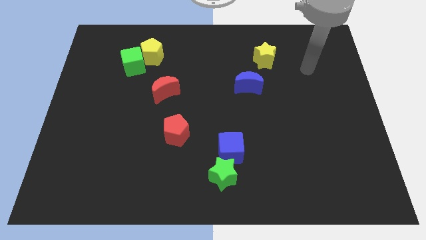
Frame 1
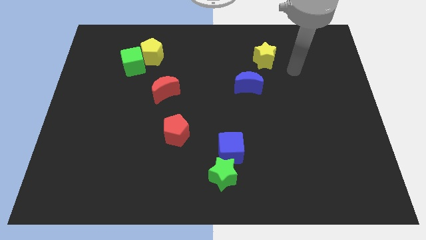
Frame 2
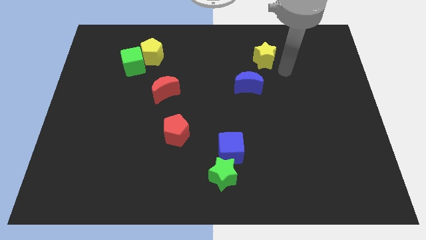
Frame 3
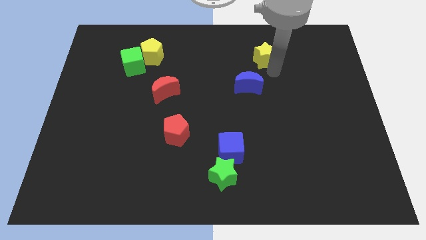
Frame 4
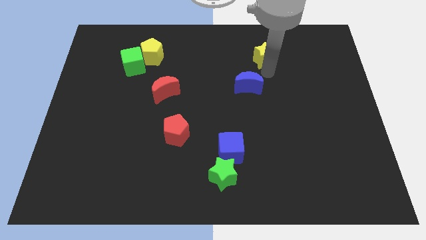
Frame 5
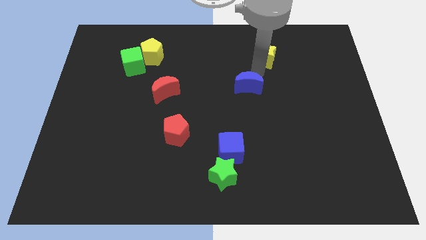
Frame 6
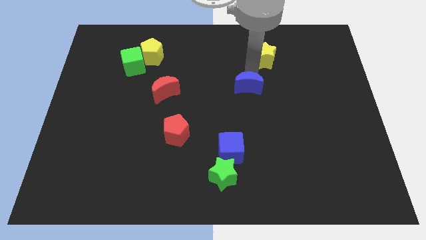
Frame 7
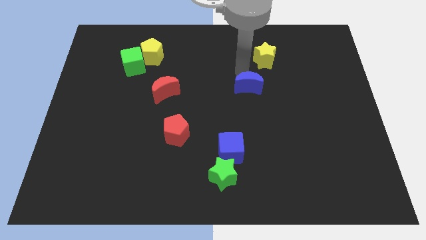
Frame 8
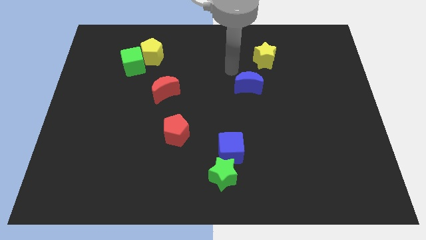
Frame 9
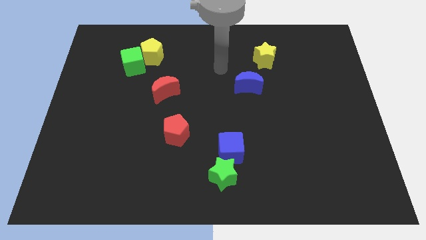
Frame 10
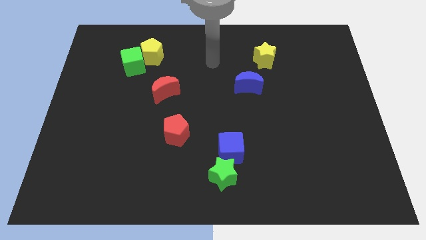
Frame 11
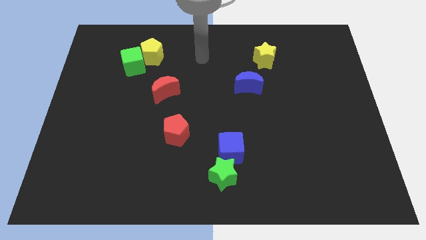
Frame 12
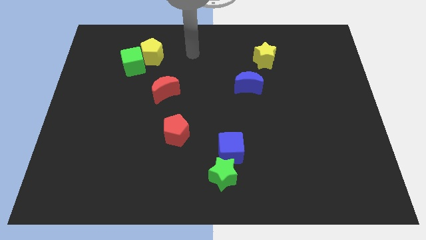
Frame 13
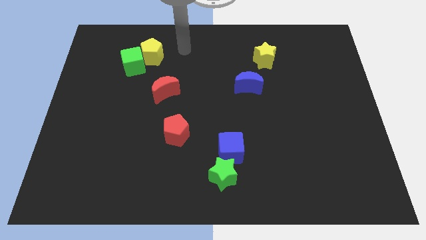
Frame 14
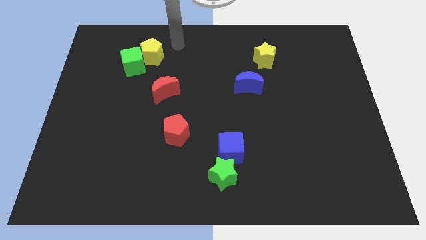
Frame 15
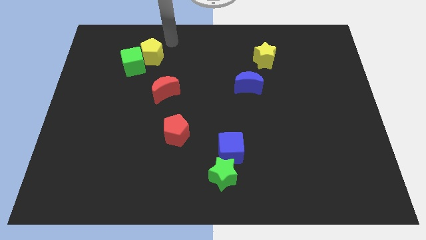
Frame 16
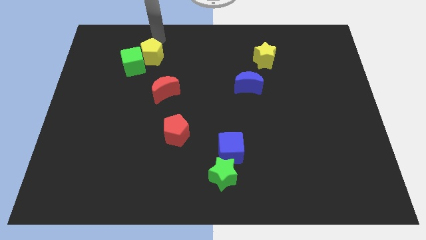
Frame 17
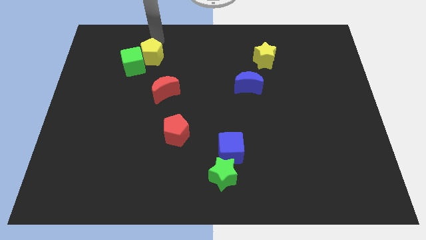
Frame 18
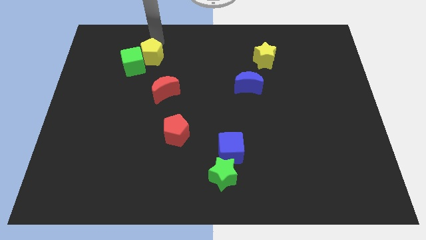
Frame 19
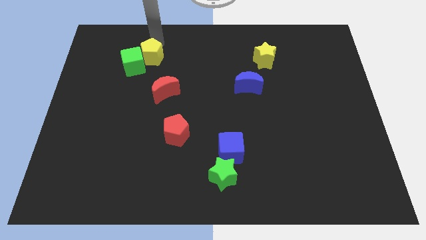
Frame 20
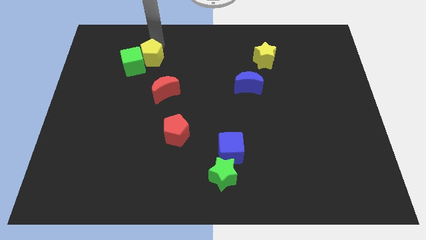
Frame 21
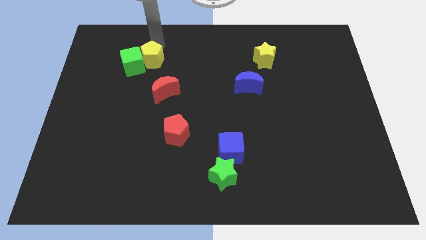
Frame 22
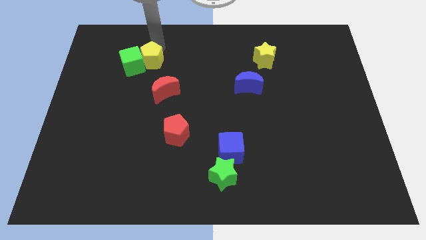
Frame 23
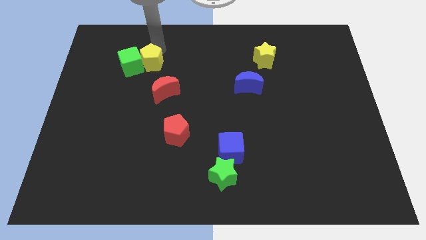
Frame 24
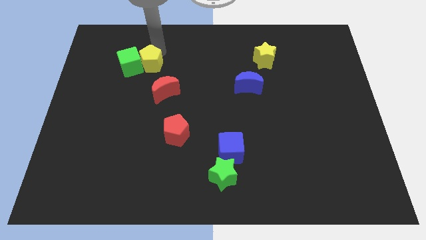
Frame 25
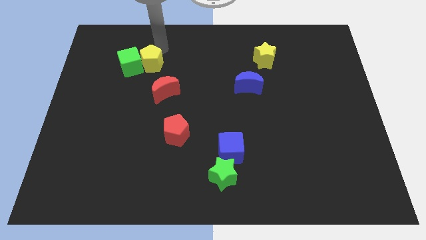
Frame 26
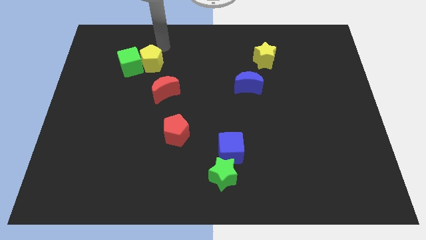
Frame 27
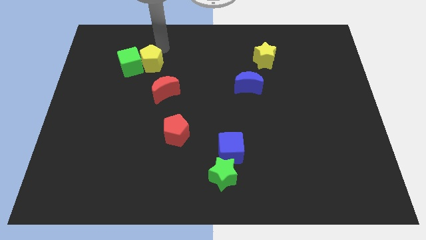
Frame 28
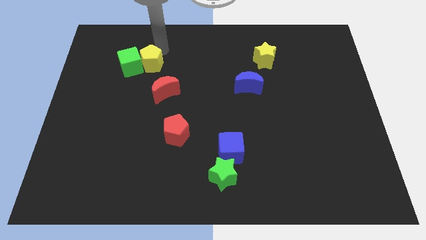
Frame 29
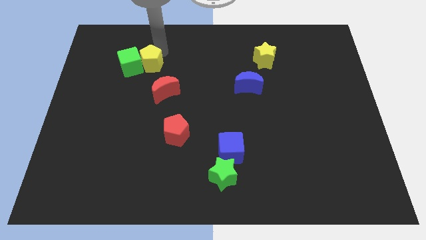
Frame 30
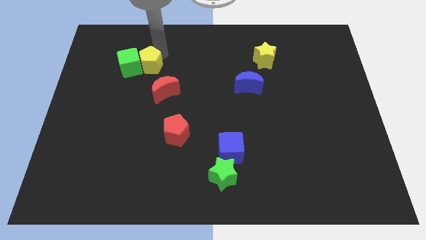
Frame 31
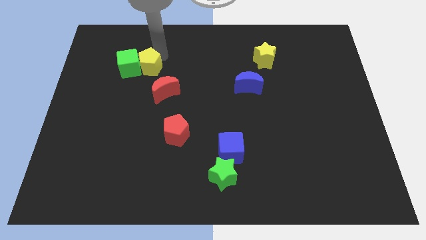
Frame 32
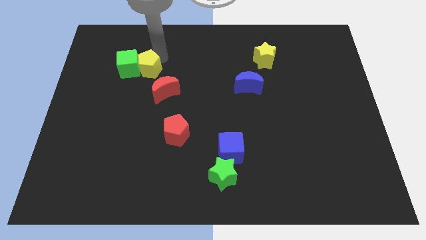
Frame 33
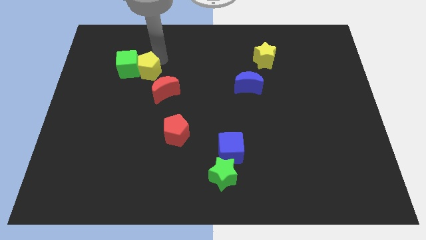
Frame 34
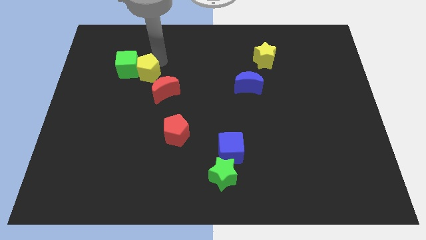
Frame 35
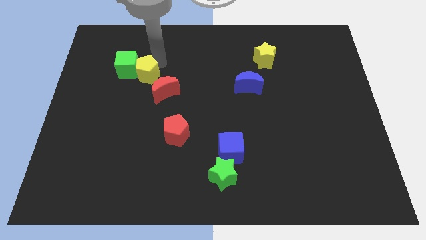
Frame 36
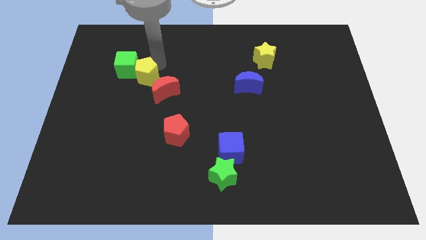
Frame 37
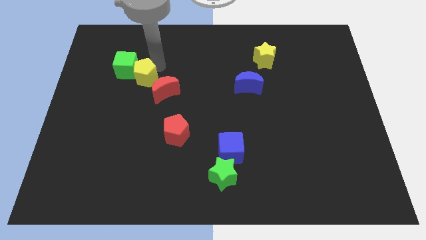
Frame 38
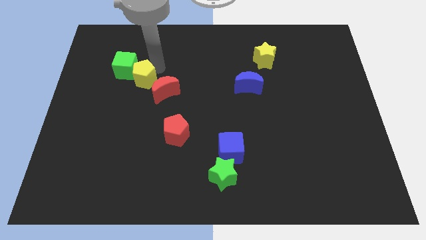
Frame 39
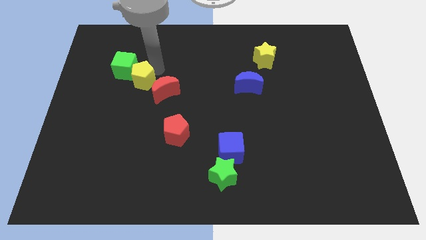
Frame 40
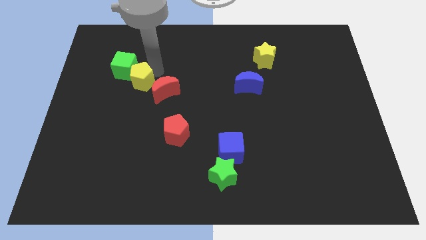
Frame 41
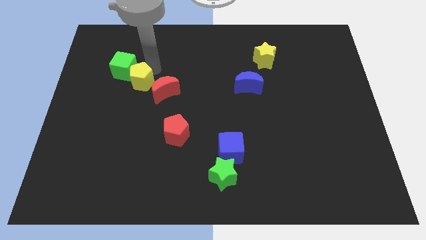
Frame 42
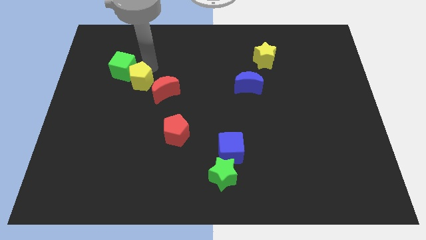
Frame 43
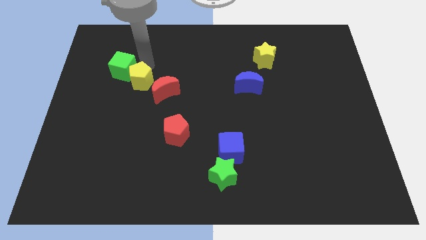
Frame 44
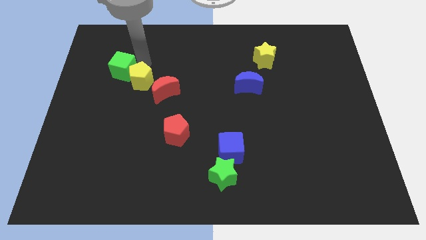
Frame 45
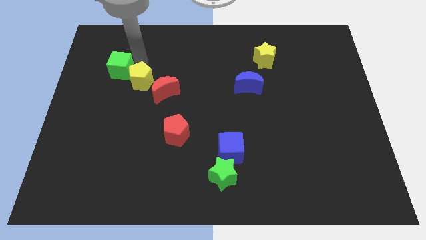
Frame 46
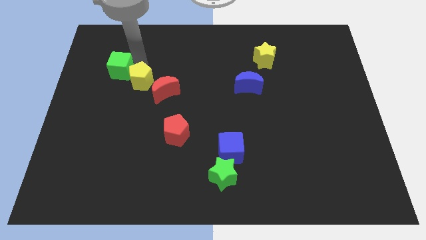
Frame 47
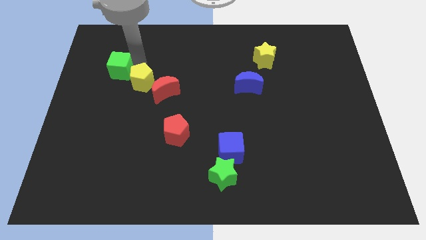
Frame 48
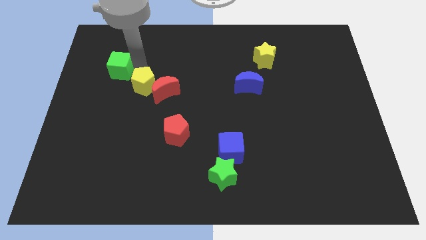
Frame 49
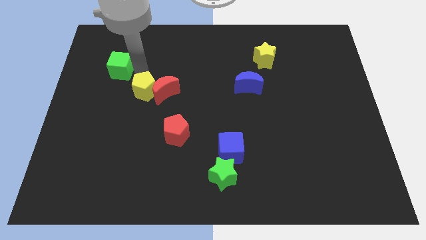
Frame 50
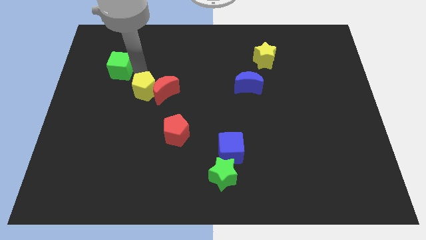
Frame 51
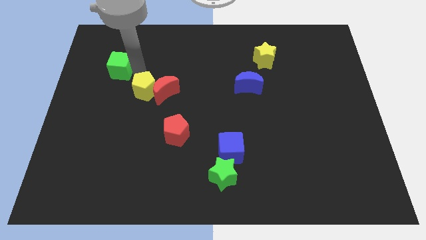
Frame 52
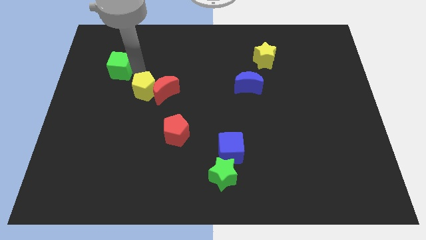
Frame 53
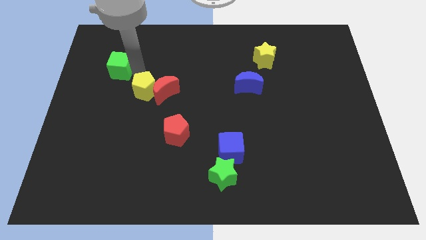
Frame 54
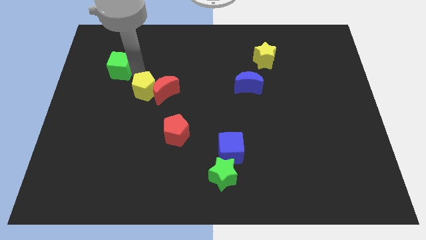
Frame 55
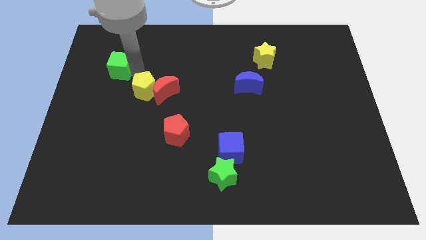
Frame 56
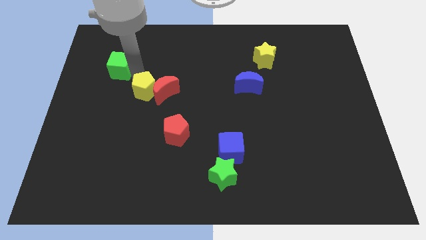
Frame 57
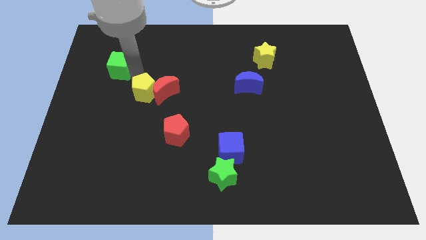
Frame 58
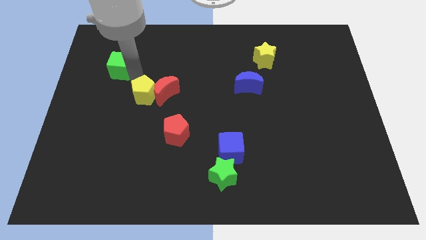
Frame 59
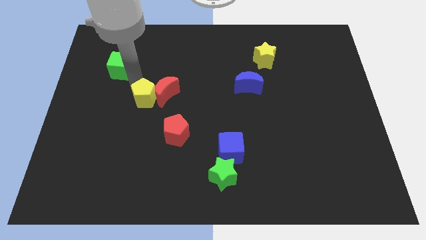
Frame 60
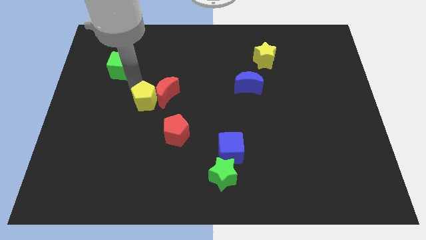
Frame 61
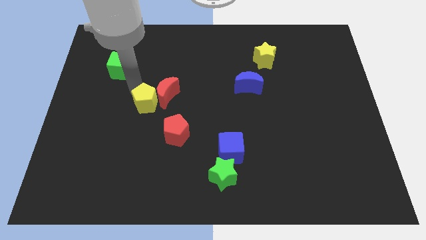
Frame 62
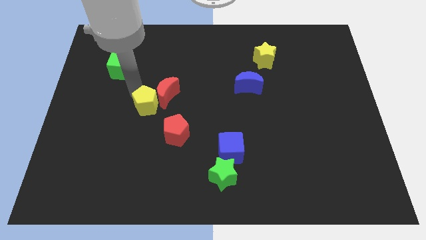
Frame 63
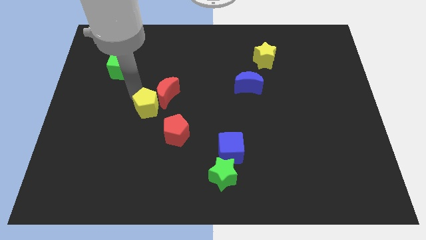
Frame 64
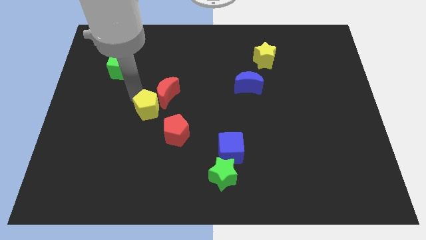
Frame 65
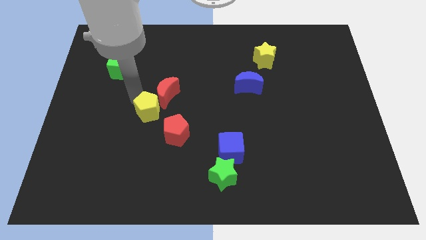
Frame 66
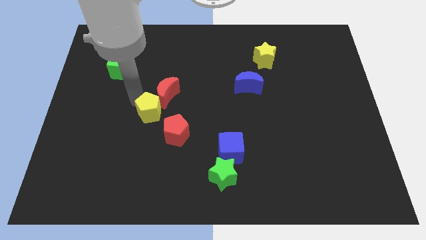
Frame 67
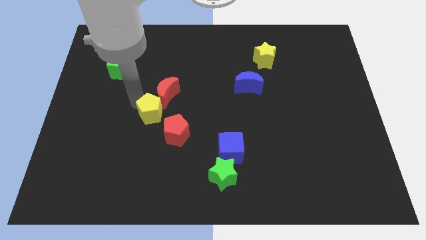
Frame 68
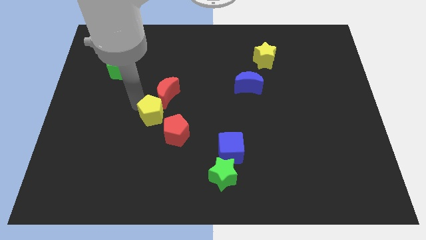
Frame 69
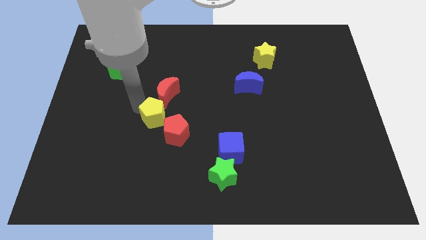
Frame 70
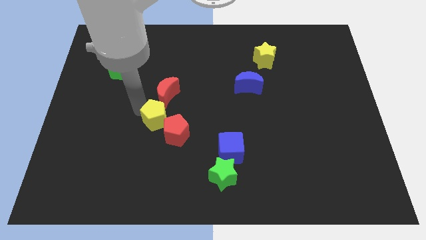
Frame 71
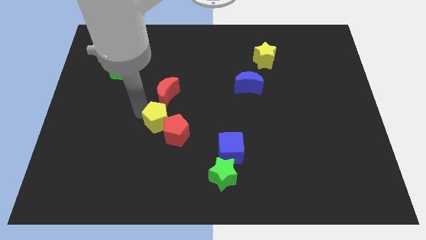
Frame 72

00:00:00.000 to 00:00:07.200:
move the yellow pentagon next to the red pentagon

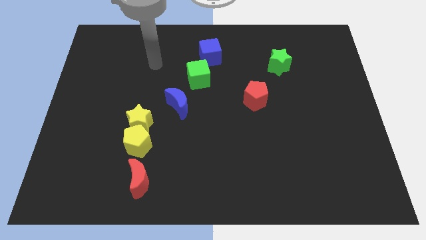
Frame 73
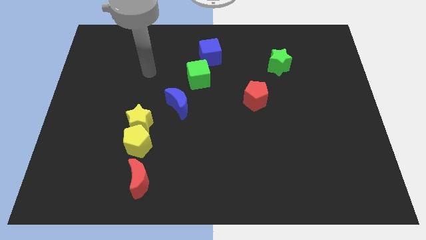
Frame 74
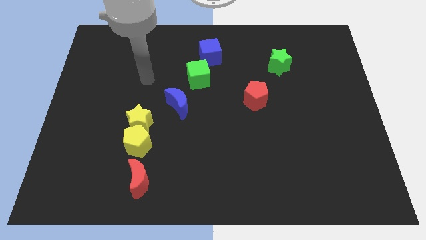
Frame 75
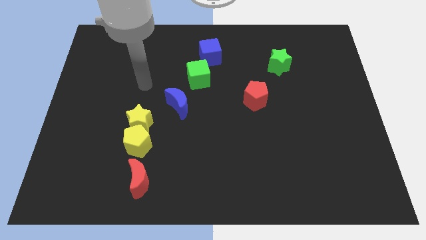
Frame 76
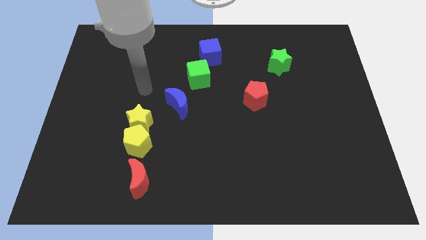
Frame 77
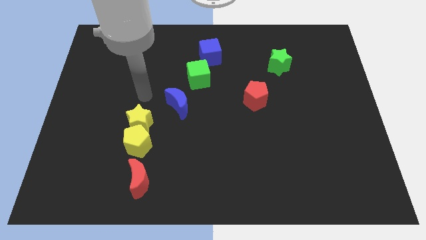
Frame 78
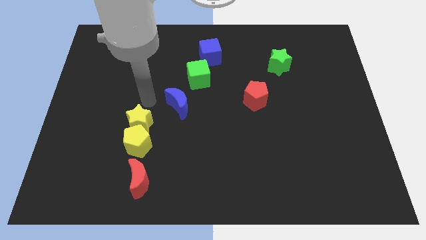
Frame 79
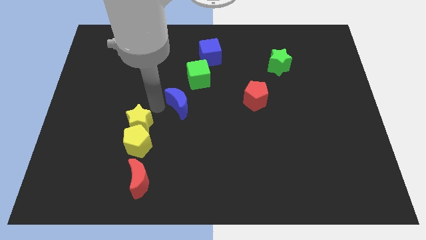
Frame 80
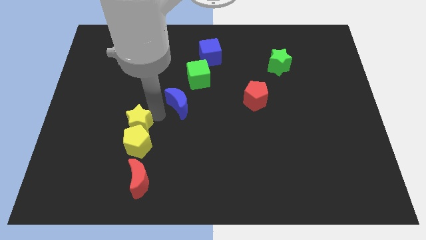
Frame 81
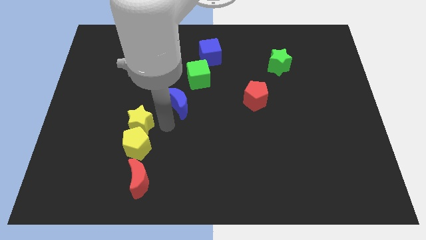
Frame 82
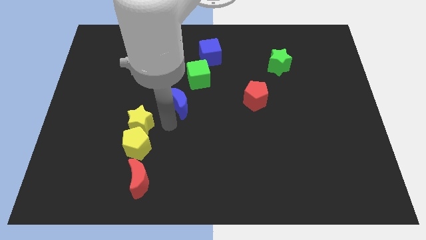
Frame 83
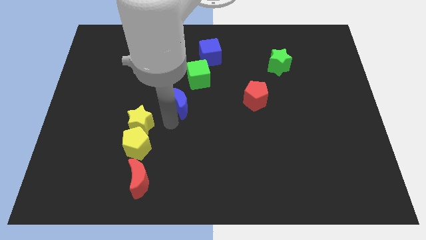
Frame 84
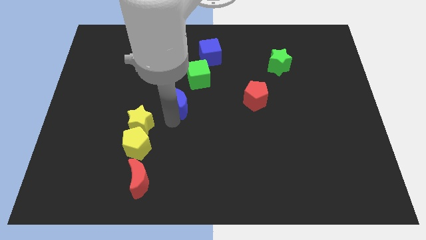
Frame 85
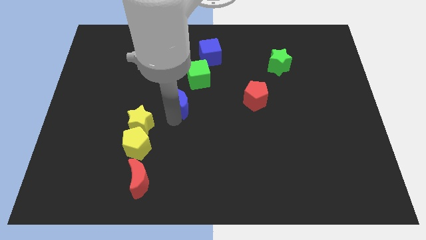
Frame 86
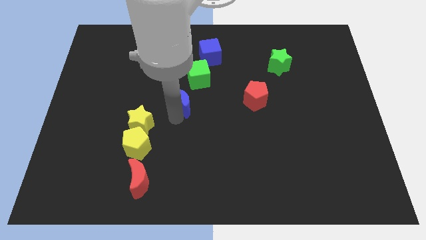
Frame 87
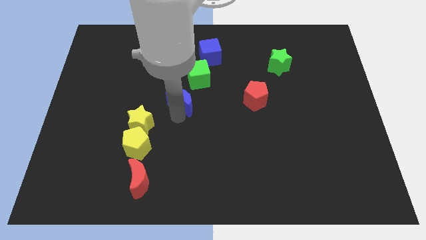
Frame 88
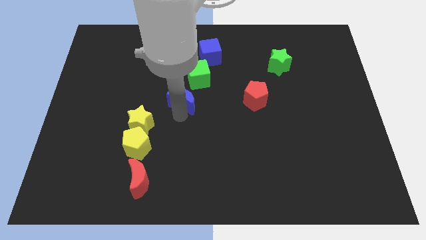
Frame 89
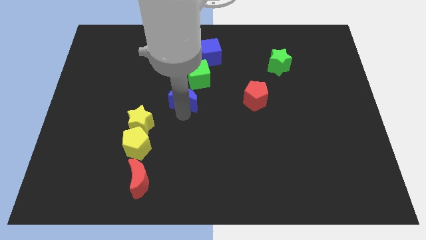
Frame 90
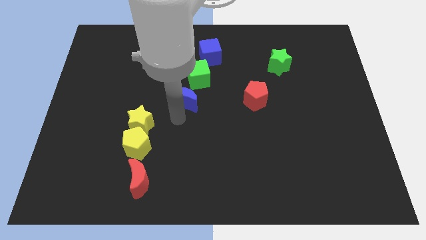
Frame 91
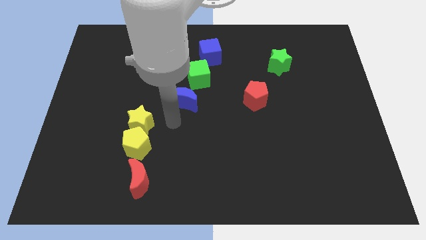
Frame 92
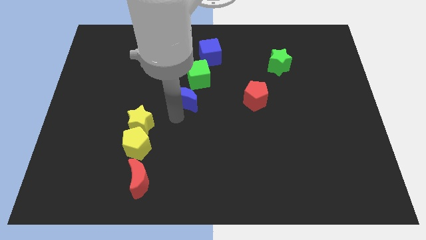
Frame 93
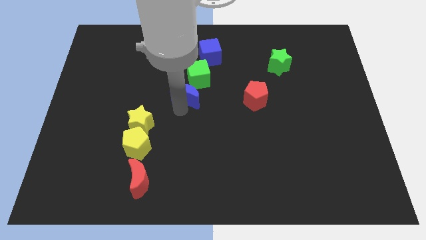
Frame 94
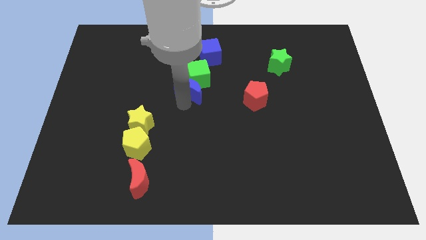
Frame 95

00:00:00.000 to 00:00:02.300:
move the blue moon close to the green cube
